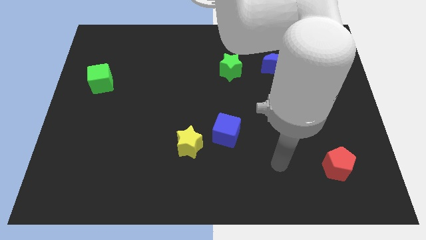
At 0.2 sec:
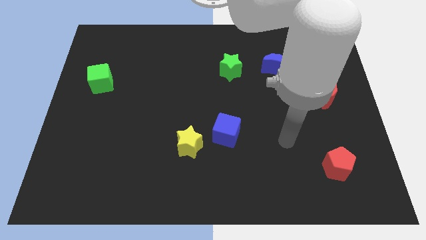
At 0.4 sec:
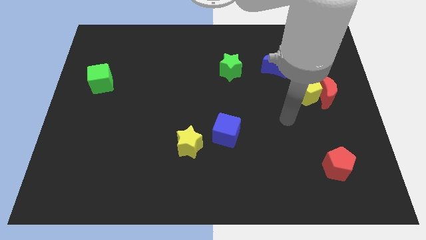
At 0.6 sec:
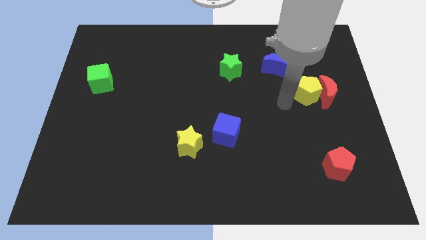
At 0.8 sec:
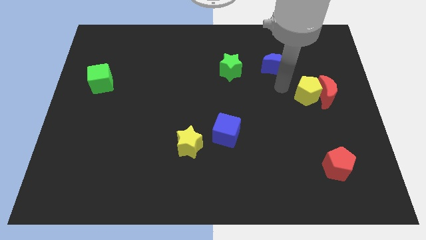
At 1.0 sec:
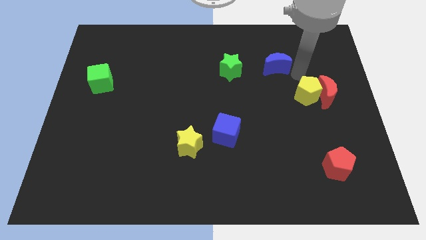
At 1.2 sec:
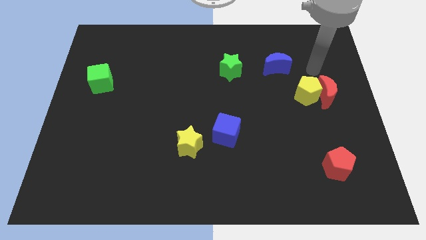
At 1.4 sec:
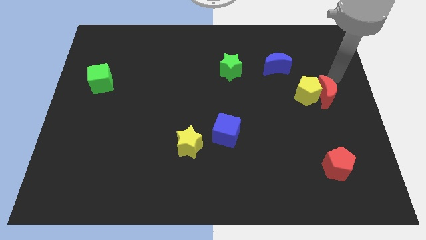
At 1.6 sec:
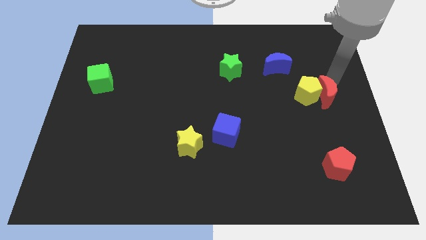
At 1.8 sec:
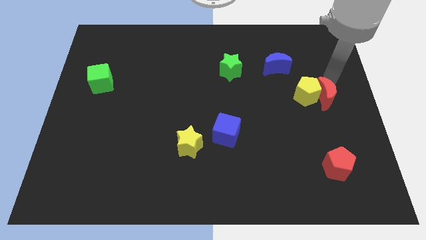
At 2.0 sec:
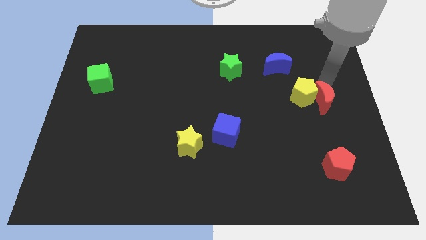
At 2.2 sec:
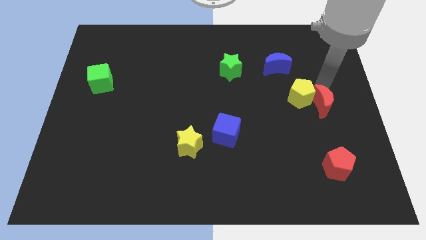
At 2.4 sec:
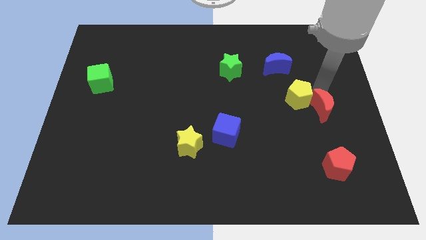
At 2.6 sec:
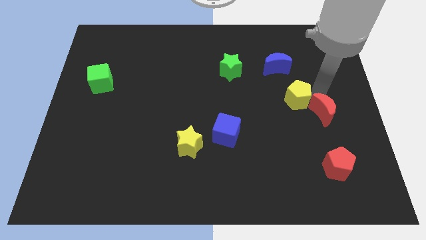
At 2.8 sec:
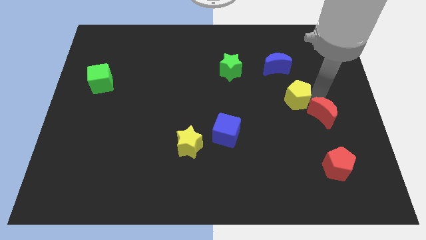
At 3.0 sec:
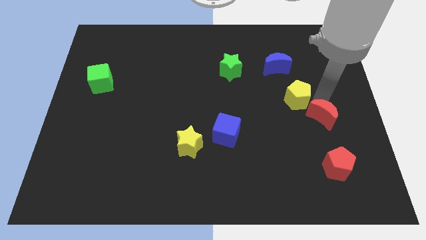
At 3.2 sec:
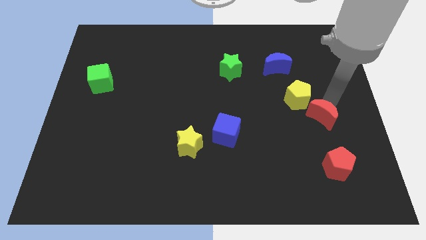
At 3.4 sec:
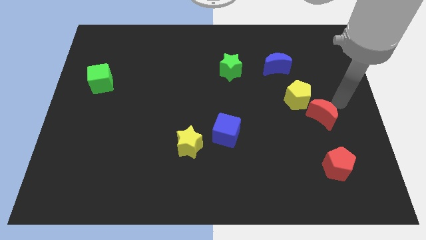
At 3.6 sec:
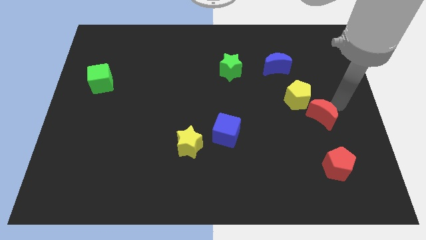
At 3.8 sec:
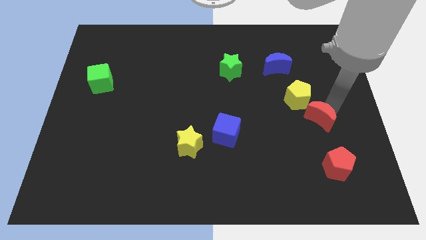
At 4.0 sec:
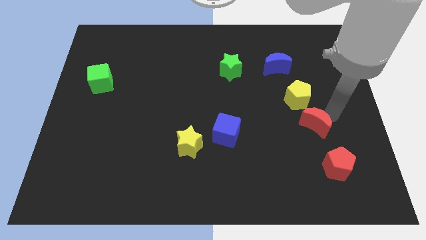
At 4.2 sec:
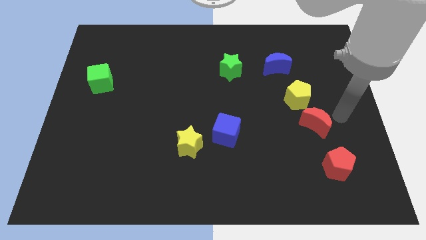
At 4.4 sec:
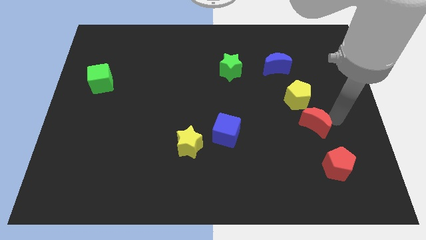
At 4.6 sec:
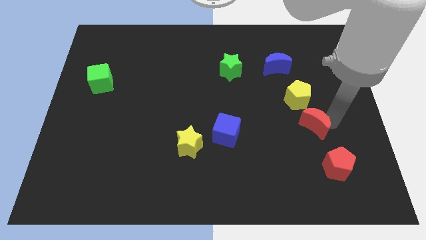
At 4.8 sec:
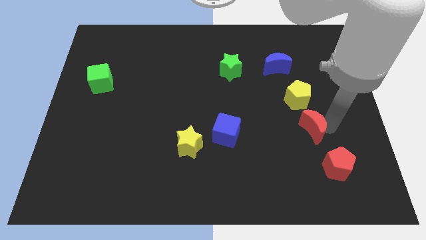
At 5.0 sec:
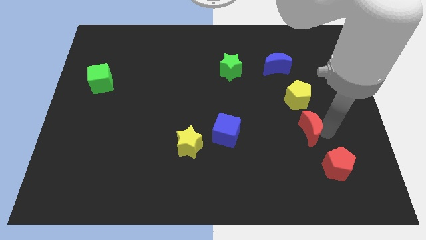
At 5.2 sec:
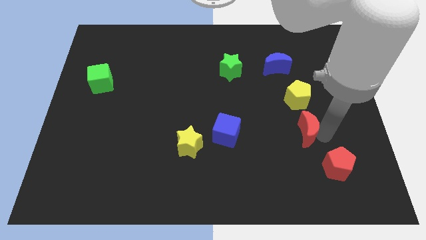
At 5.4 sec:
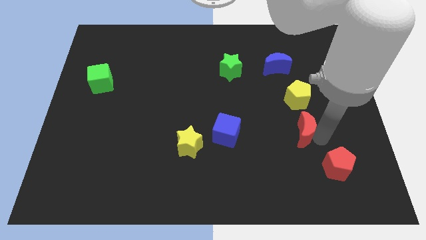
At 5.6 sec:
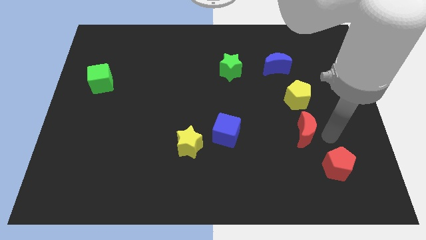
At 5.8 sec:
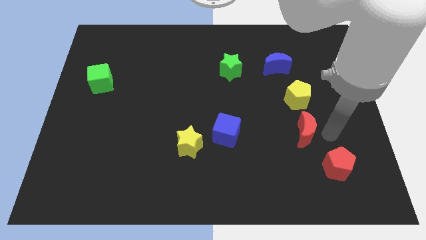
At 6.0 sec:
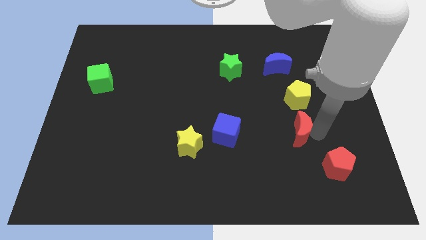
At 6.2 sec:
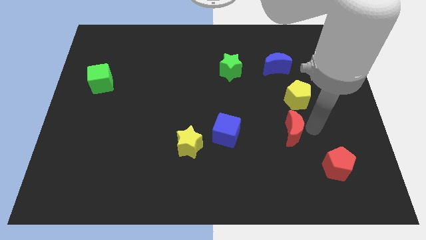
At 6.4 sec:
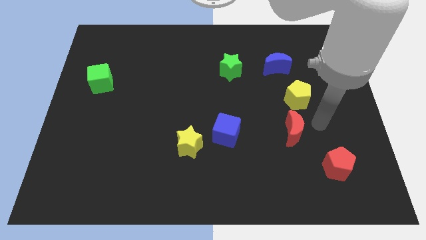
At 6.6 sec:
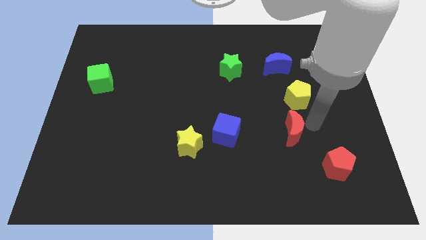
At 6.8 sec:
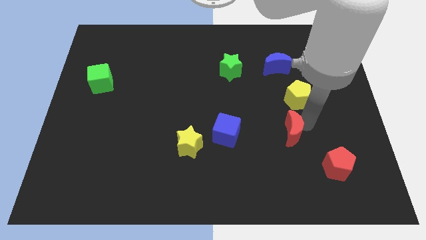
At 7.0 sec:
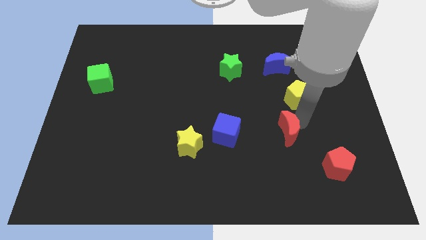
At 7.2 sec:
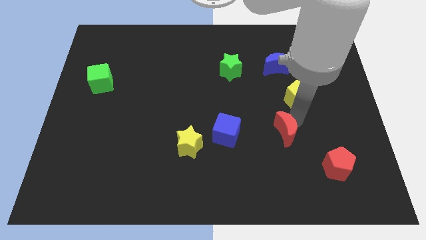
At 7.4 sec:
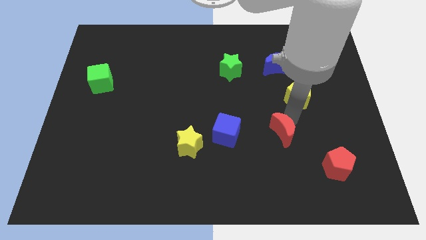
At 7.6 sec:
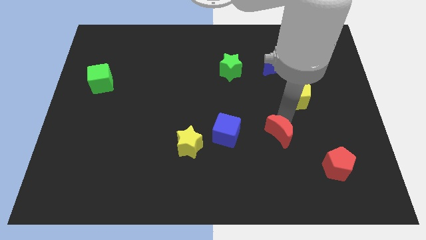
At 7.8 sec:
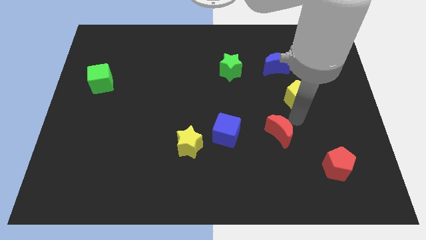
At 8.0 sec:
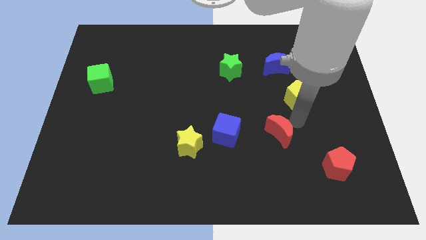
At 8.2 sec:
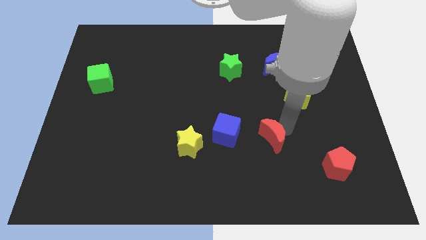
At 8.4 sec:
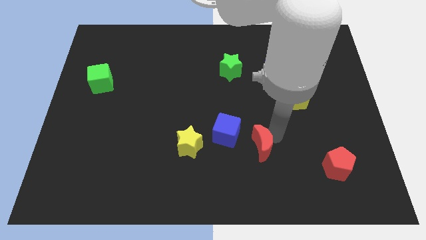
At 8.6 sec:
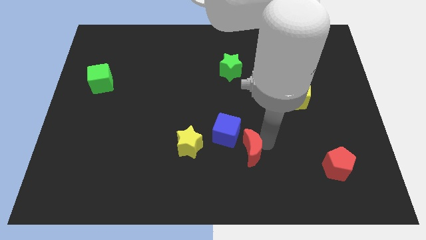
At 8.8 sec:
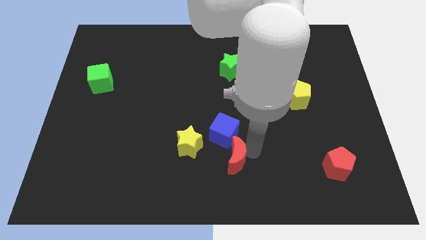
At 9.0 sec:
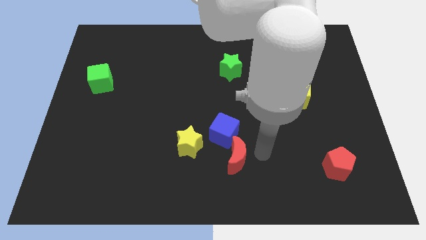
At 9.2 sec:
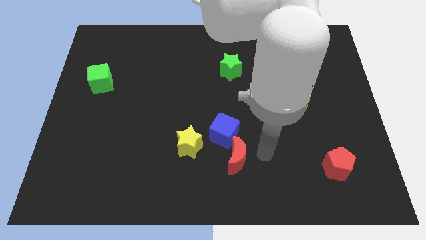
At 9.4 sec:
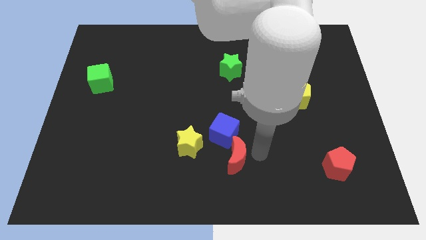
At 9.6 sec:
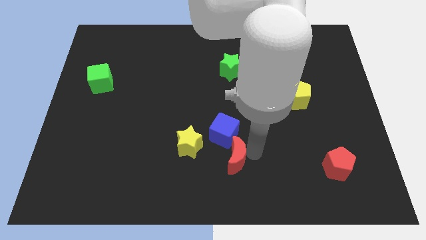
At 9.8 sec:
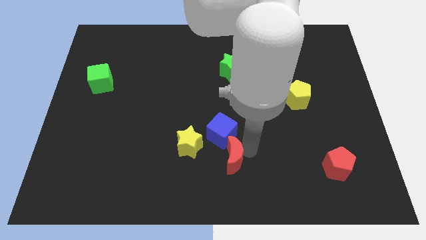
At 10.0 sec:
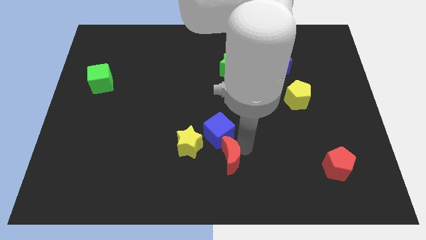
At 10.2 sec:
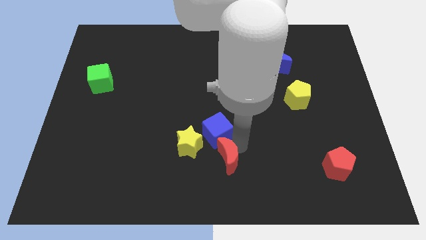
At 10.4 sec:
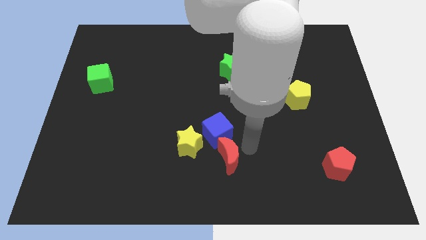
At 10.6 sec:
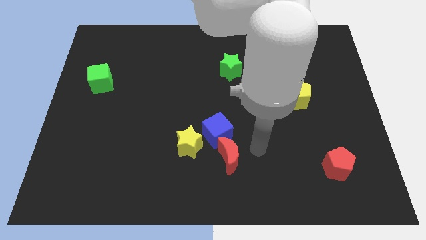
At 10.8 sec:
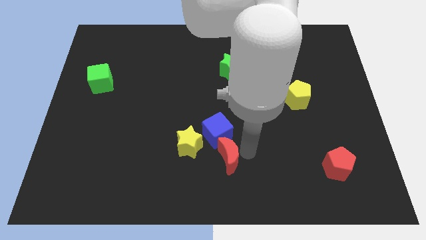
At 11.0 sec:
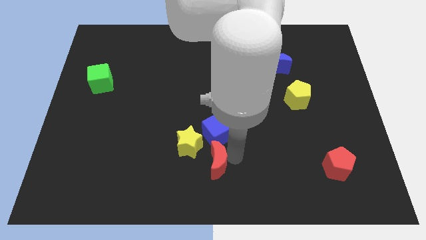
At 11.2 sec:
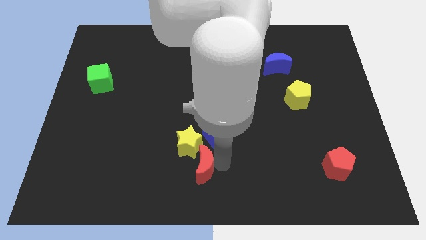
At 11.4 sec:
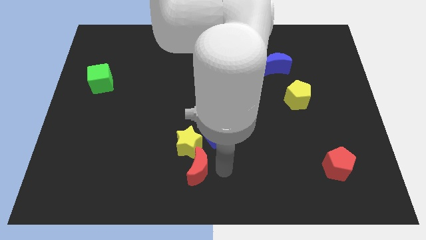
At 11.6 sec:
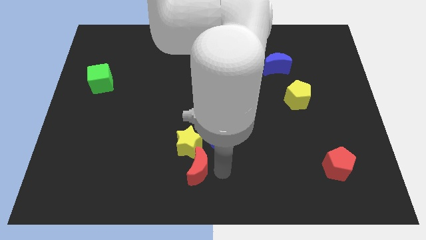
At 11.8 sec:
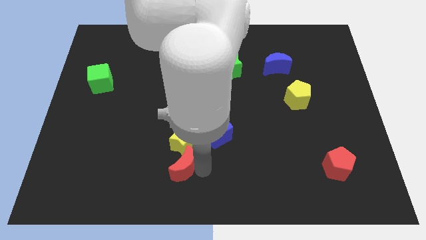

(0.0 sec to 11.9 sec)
slide the red moon diagonally down and to the left of the yellow star

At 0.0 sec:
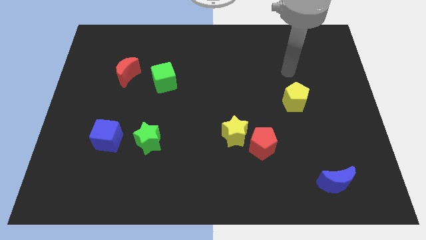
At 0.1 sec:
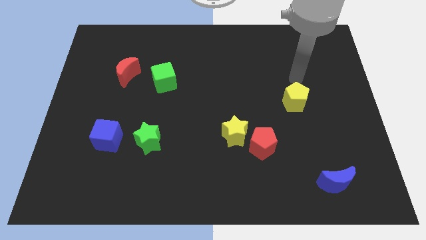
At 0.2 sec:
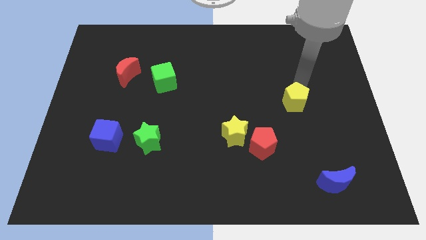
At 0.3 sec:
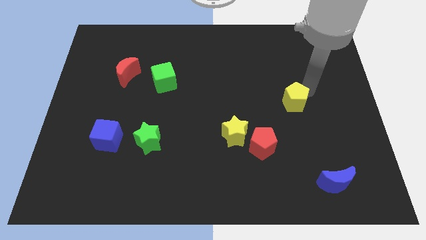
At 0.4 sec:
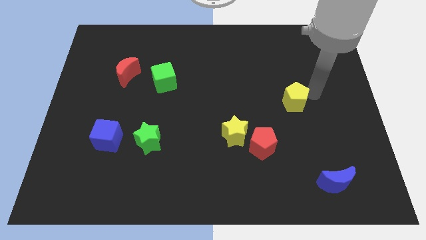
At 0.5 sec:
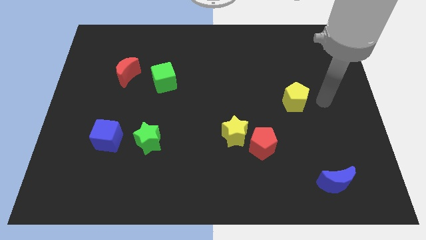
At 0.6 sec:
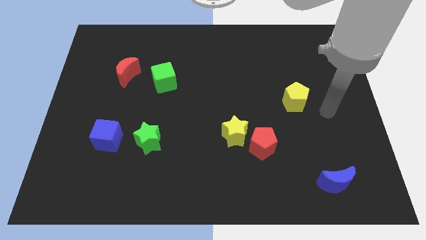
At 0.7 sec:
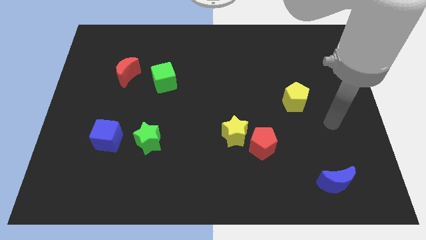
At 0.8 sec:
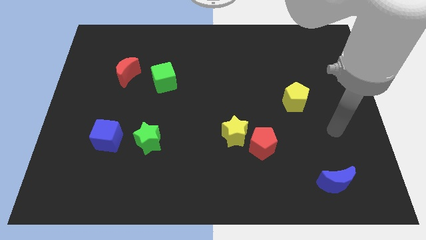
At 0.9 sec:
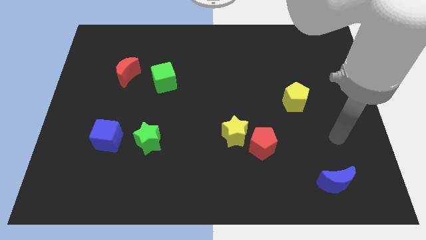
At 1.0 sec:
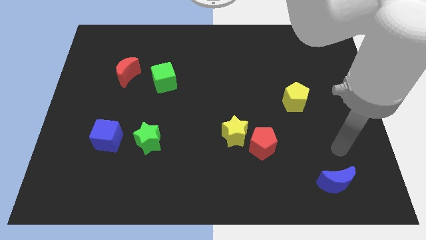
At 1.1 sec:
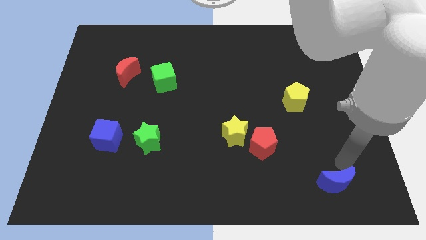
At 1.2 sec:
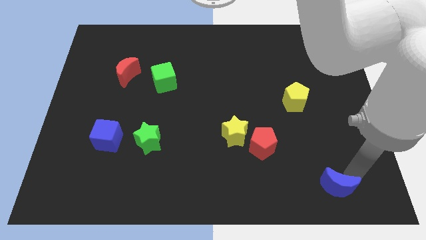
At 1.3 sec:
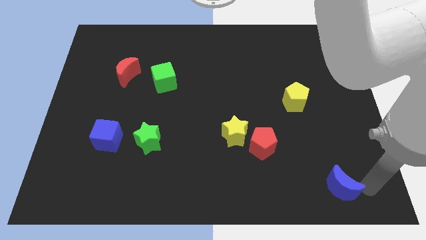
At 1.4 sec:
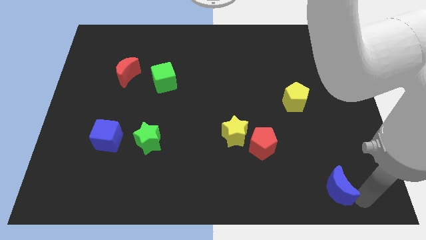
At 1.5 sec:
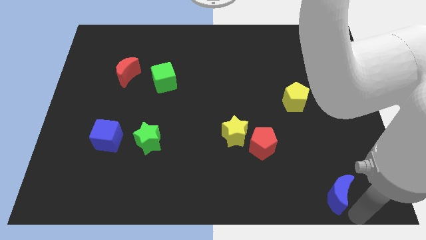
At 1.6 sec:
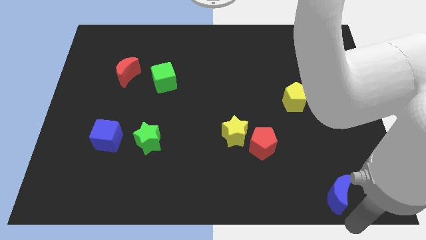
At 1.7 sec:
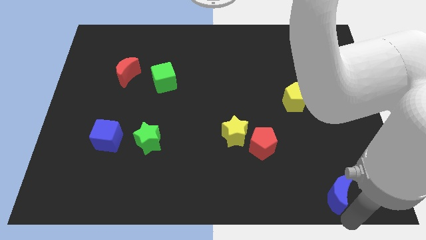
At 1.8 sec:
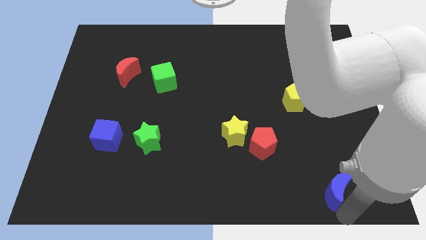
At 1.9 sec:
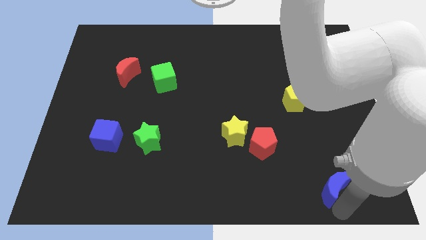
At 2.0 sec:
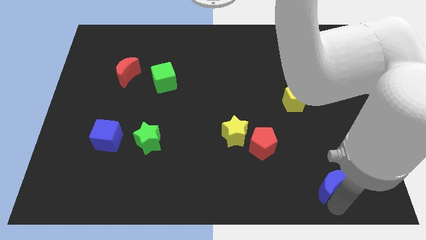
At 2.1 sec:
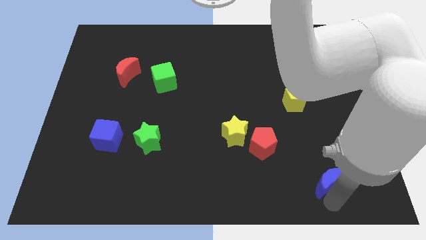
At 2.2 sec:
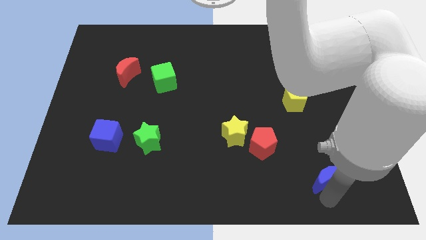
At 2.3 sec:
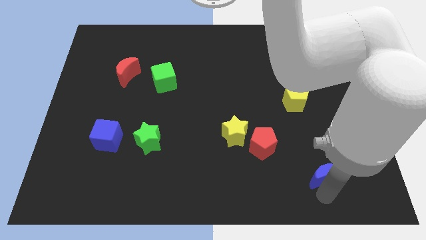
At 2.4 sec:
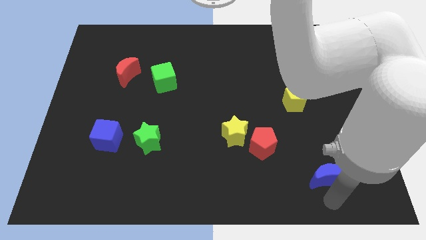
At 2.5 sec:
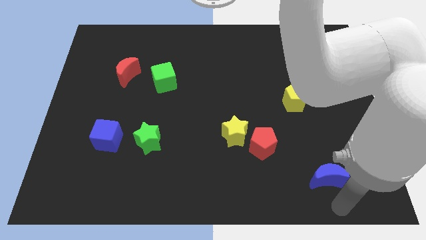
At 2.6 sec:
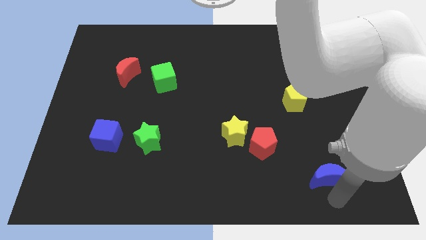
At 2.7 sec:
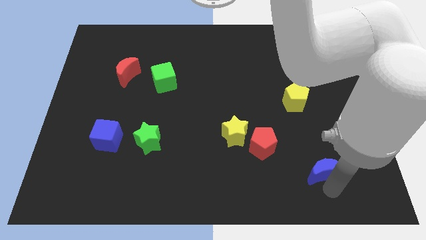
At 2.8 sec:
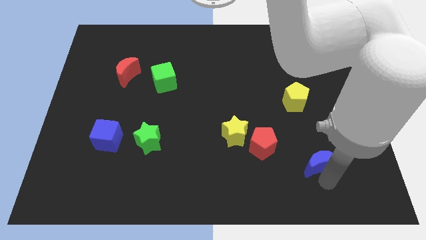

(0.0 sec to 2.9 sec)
slide the blue moon just right of the red pentagon
